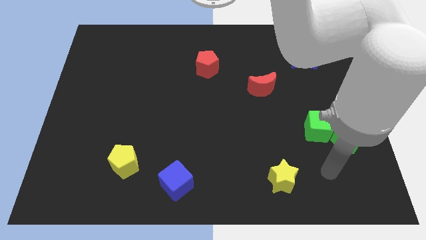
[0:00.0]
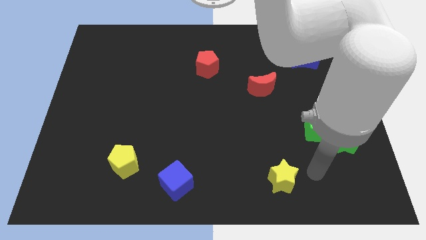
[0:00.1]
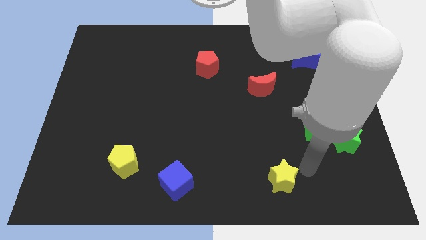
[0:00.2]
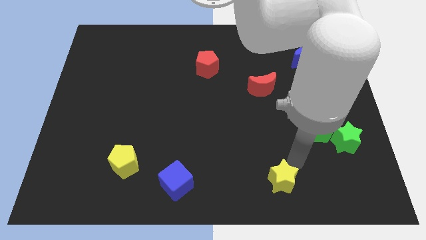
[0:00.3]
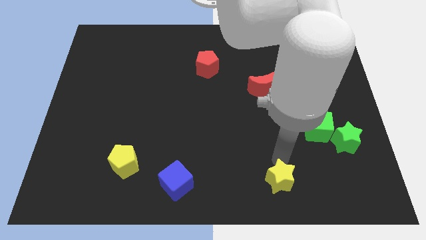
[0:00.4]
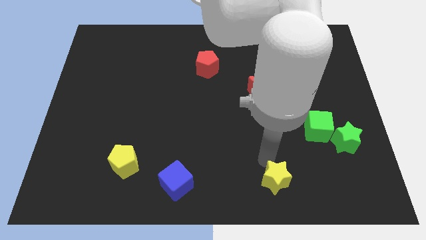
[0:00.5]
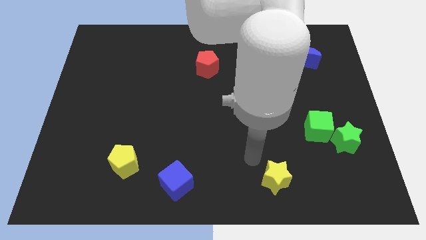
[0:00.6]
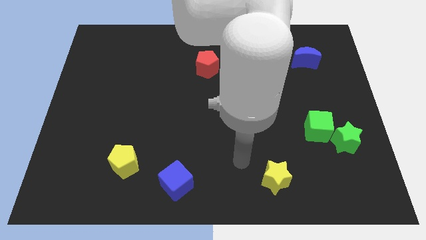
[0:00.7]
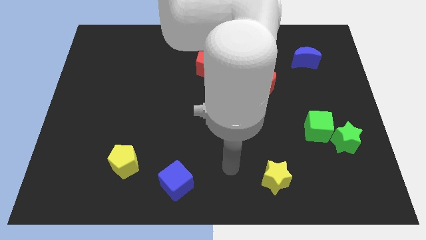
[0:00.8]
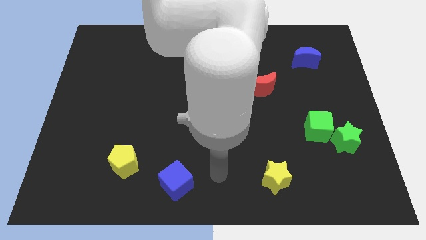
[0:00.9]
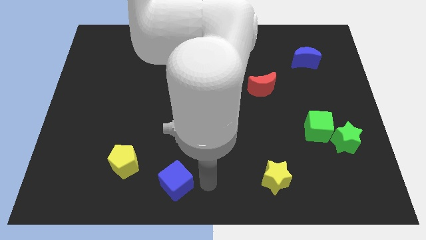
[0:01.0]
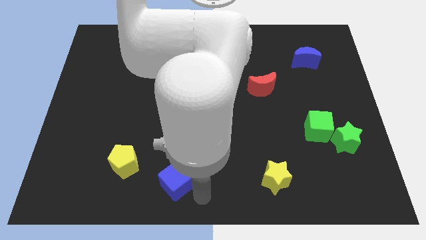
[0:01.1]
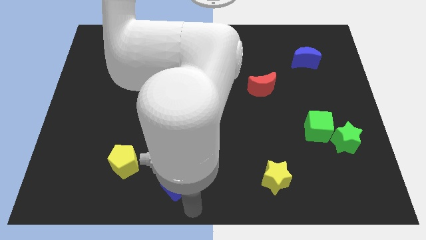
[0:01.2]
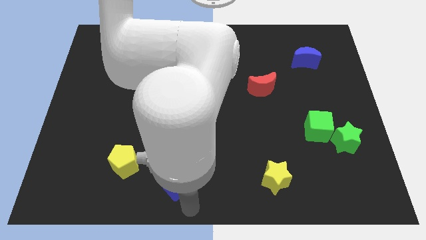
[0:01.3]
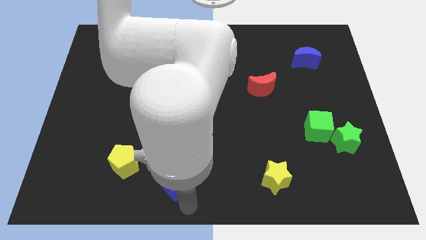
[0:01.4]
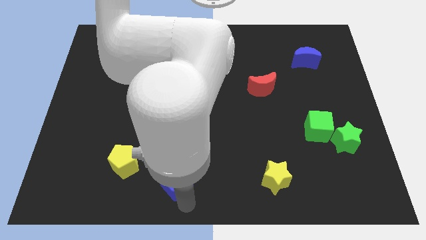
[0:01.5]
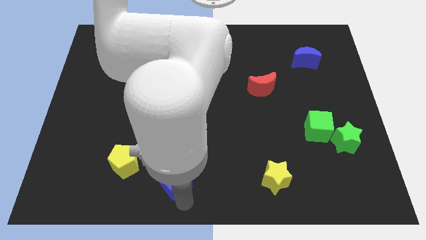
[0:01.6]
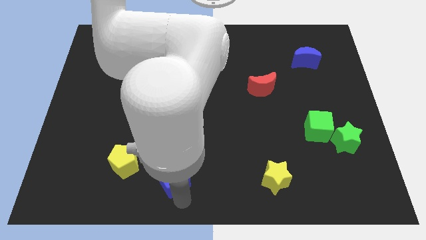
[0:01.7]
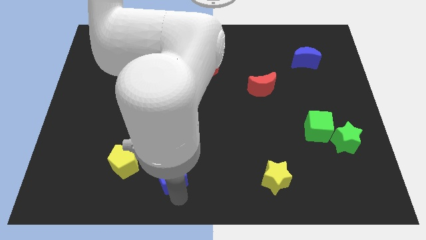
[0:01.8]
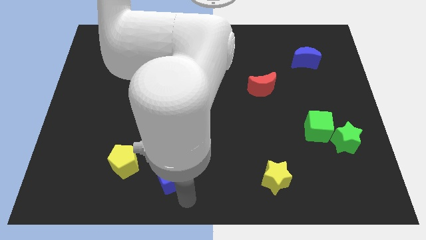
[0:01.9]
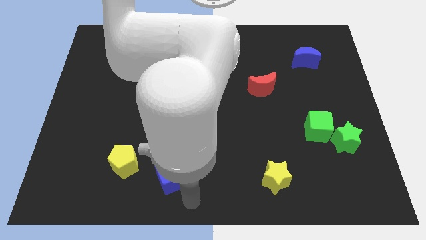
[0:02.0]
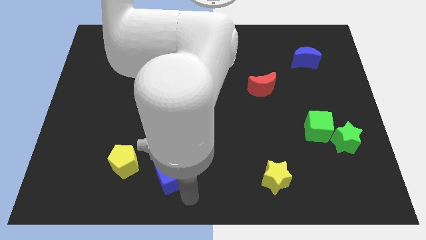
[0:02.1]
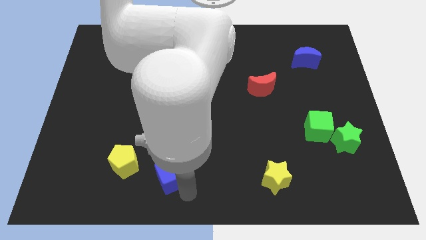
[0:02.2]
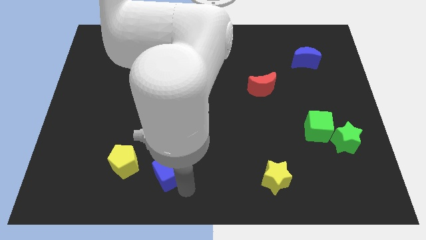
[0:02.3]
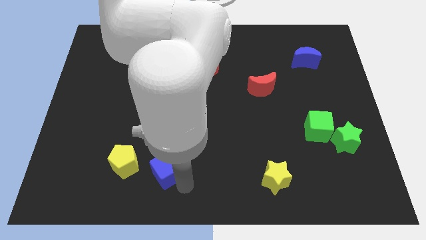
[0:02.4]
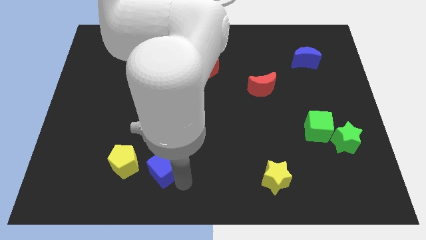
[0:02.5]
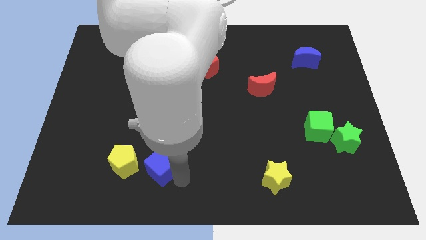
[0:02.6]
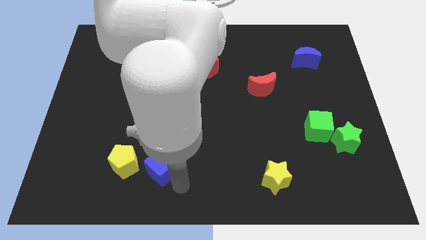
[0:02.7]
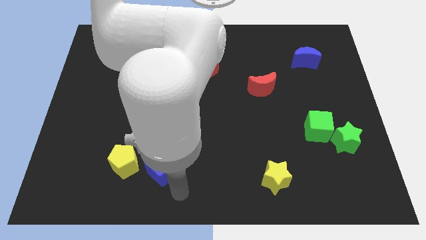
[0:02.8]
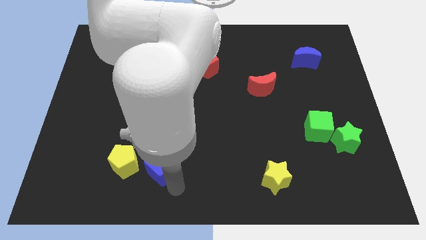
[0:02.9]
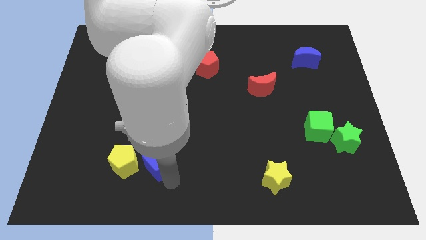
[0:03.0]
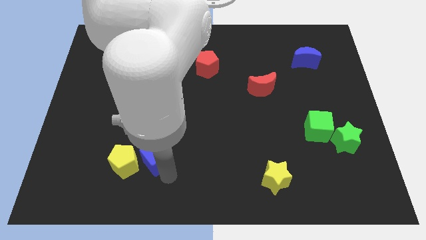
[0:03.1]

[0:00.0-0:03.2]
slide the blue cube up and to the left a little bit

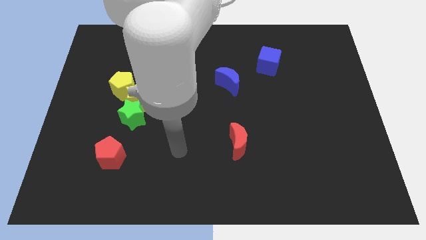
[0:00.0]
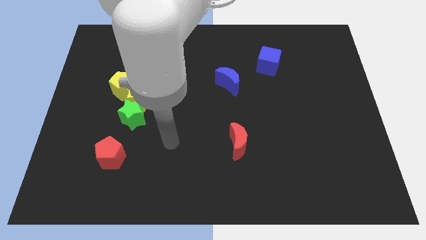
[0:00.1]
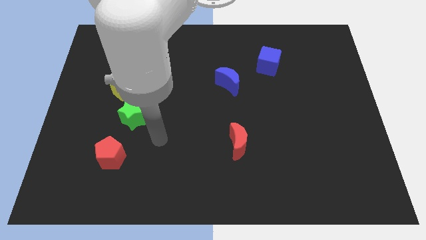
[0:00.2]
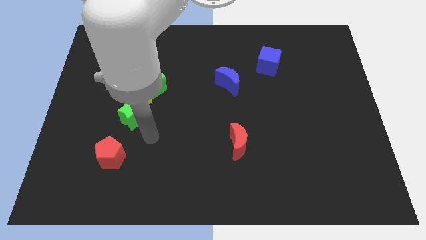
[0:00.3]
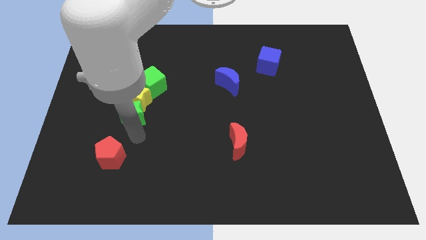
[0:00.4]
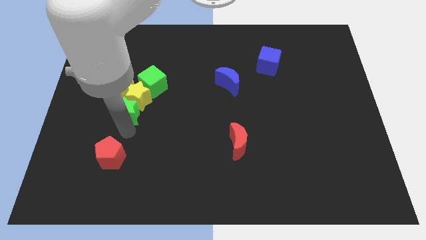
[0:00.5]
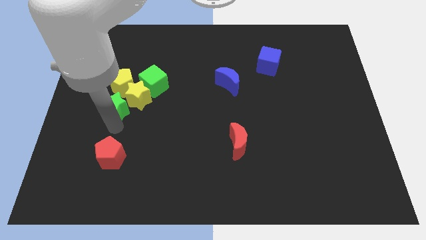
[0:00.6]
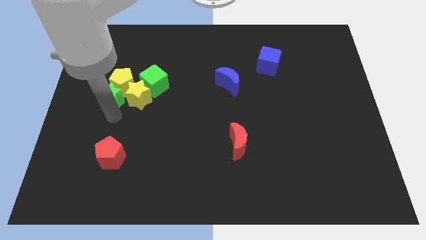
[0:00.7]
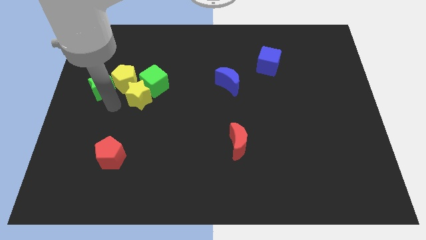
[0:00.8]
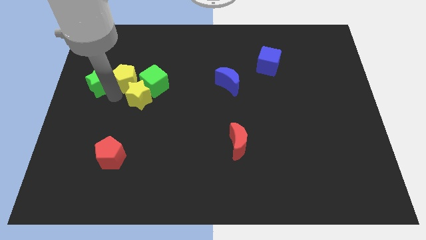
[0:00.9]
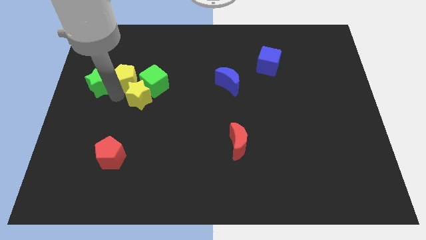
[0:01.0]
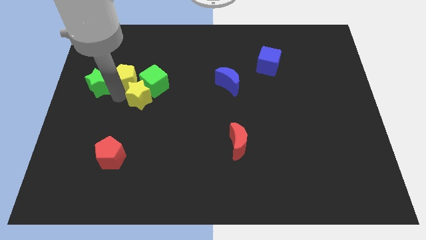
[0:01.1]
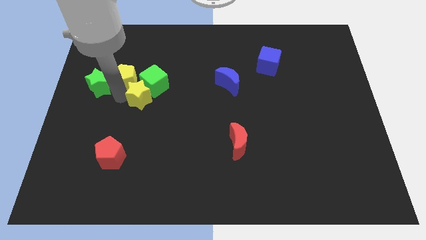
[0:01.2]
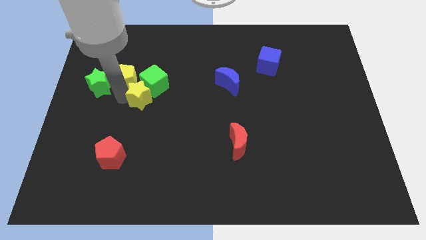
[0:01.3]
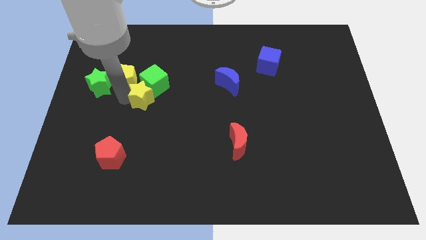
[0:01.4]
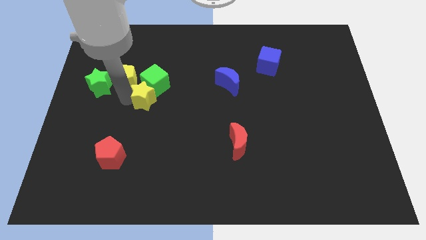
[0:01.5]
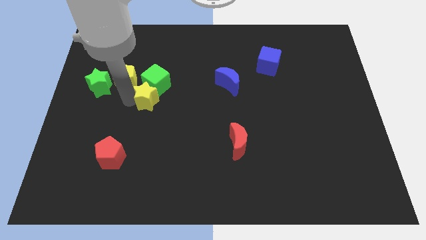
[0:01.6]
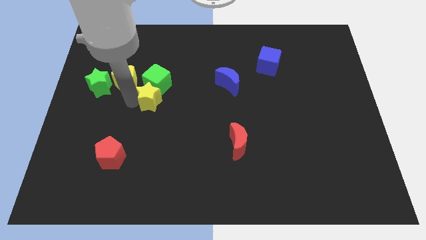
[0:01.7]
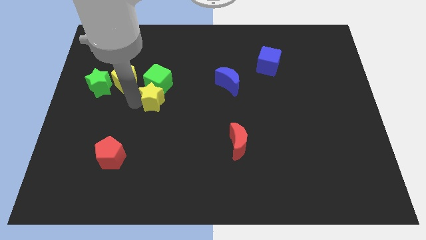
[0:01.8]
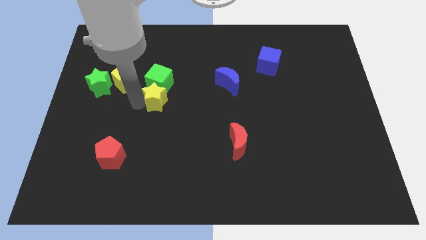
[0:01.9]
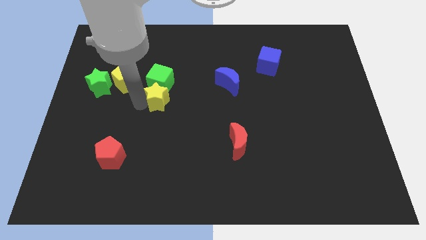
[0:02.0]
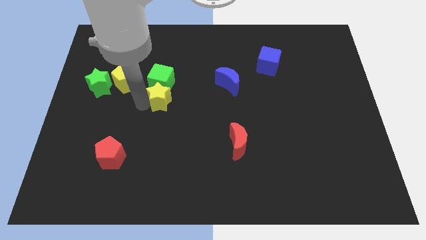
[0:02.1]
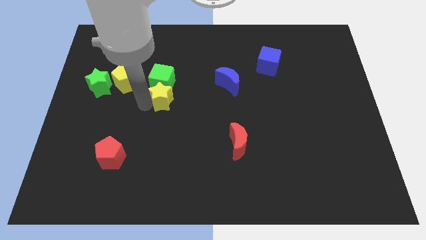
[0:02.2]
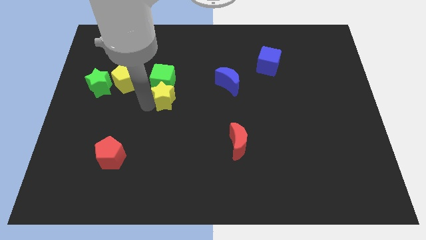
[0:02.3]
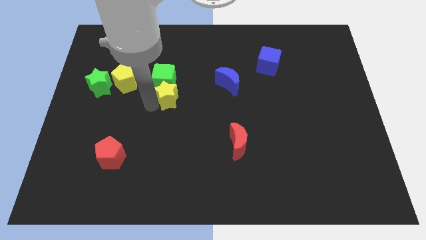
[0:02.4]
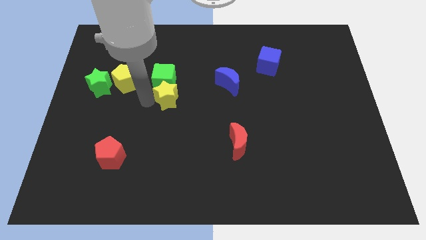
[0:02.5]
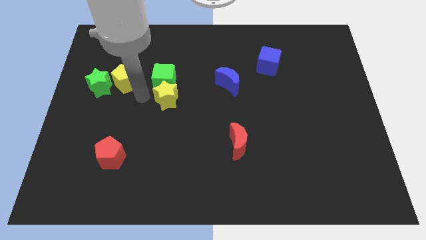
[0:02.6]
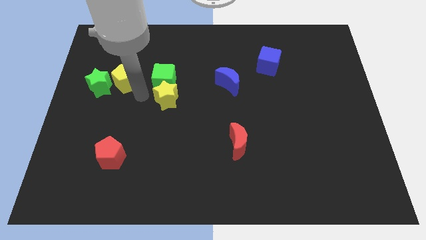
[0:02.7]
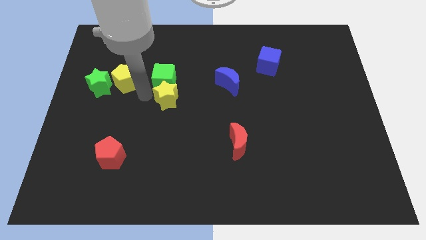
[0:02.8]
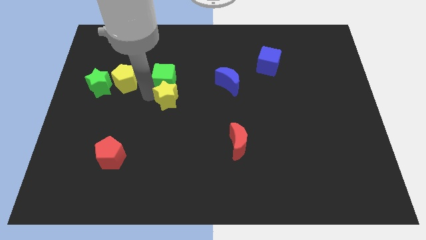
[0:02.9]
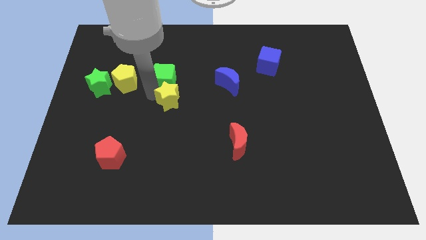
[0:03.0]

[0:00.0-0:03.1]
slightly slide the yellow star to the right

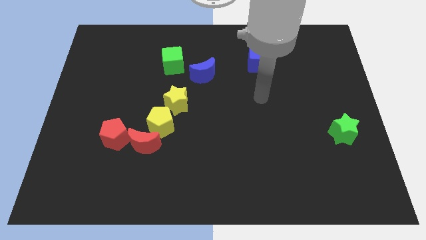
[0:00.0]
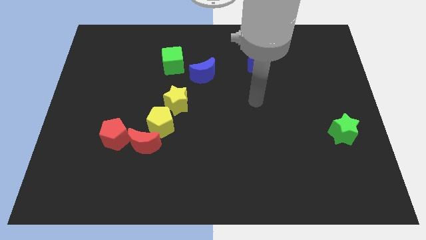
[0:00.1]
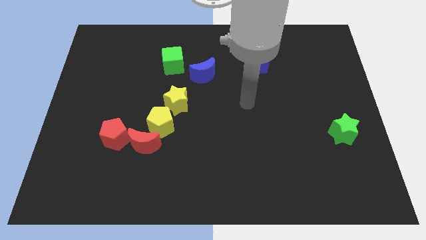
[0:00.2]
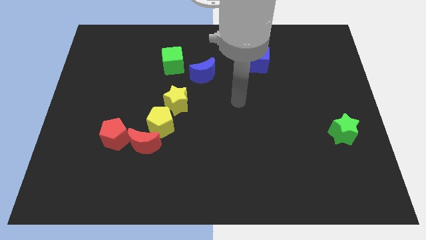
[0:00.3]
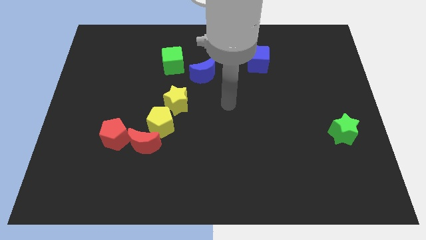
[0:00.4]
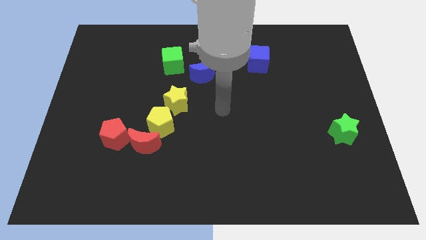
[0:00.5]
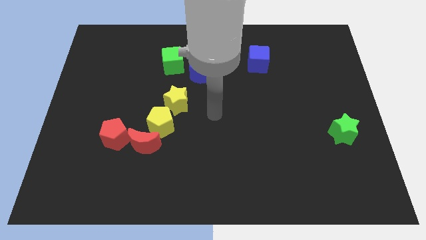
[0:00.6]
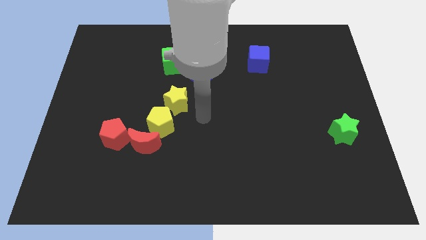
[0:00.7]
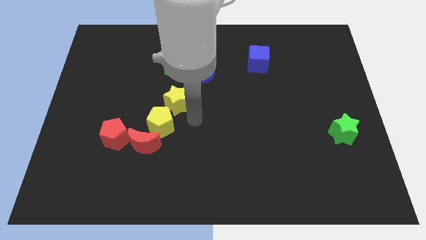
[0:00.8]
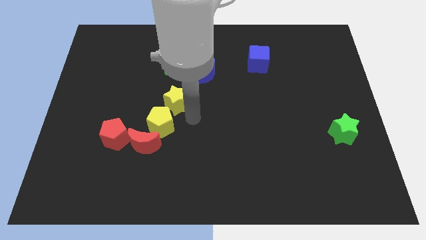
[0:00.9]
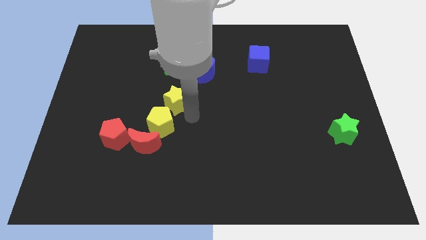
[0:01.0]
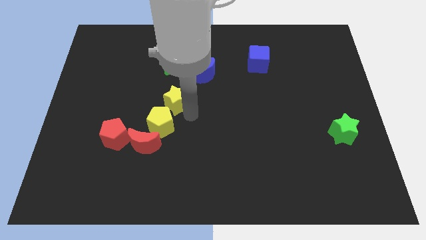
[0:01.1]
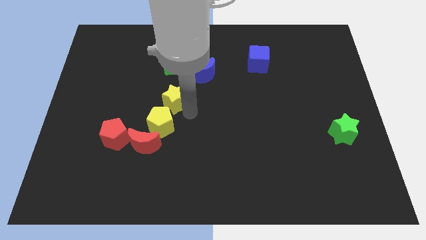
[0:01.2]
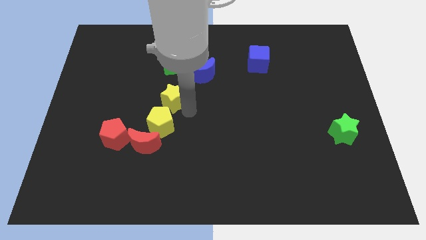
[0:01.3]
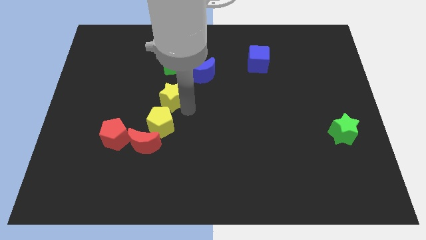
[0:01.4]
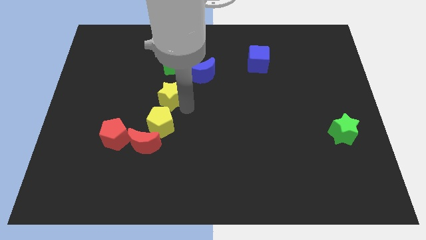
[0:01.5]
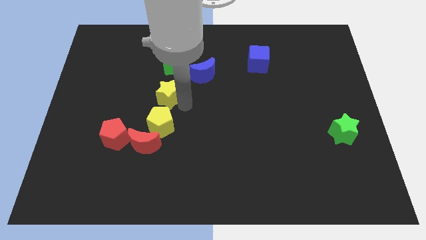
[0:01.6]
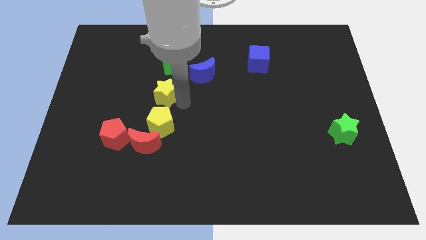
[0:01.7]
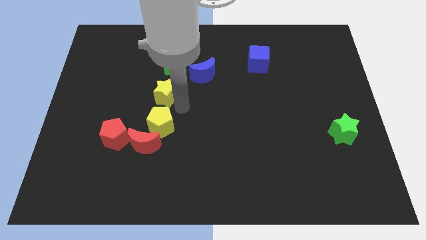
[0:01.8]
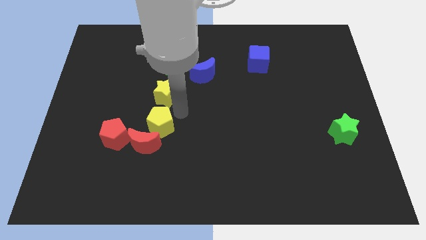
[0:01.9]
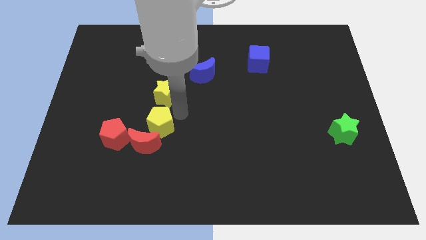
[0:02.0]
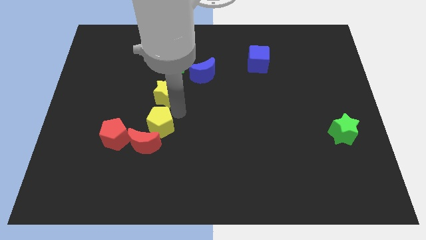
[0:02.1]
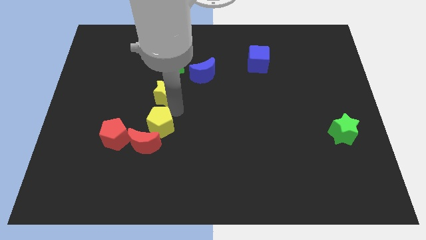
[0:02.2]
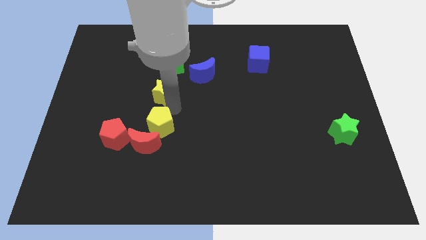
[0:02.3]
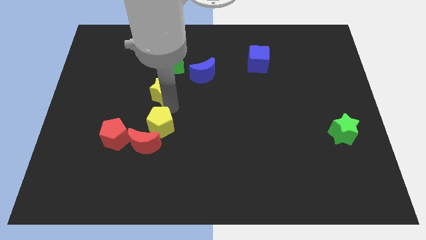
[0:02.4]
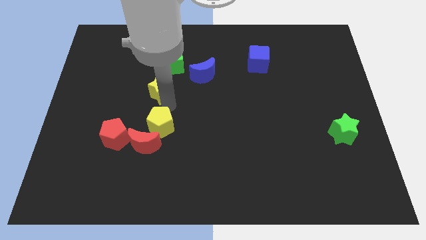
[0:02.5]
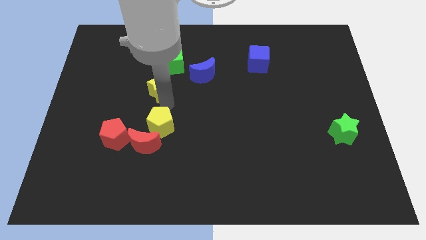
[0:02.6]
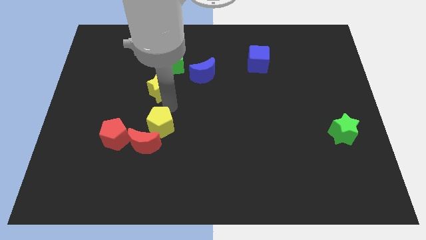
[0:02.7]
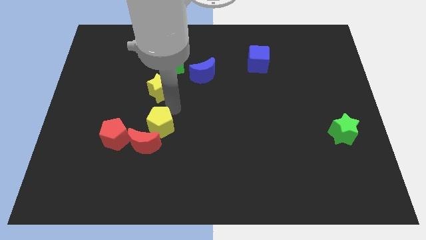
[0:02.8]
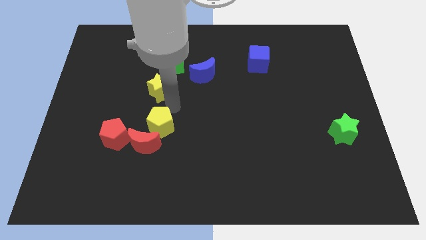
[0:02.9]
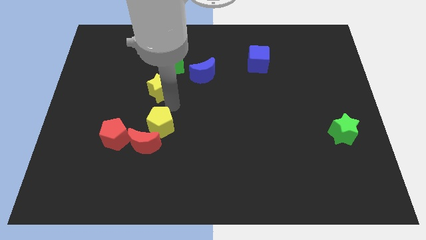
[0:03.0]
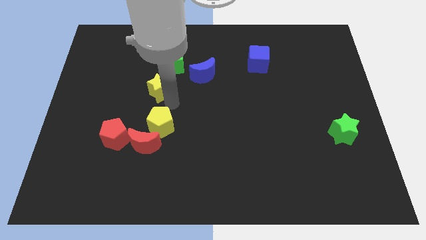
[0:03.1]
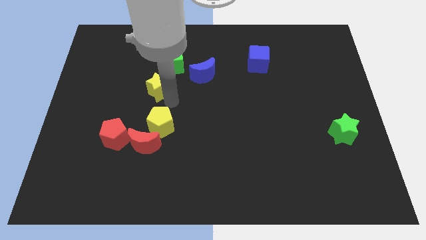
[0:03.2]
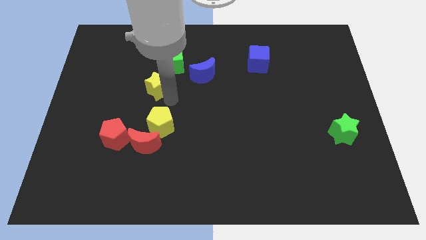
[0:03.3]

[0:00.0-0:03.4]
slightly move the yellow star diagonally up and left
